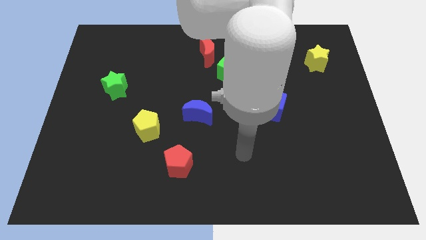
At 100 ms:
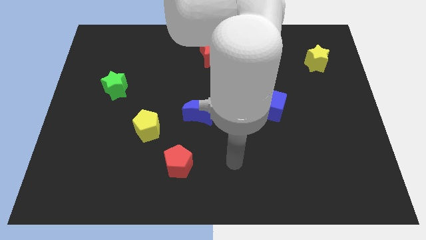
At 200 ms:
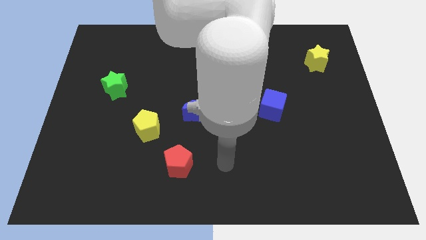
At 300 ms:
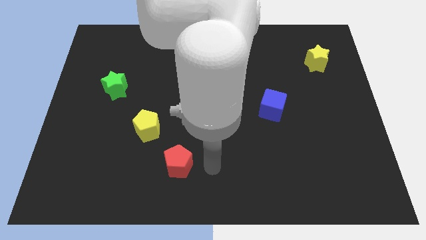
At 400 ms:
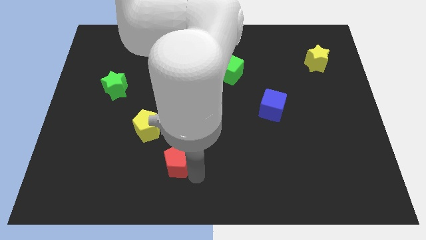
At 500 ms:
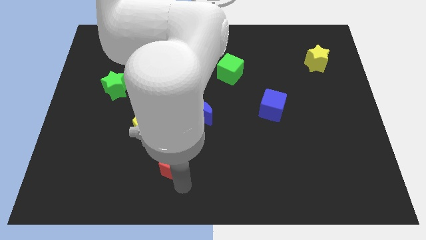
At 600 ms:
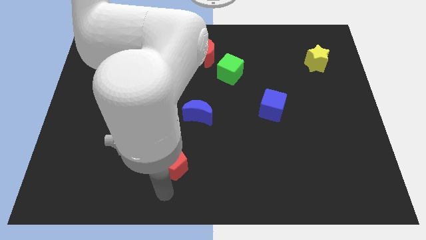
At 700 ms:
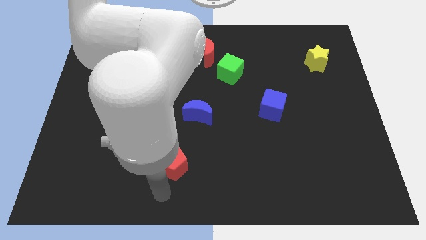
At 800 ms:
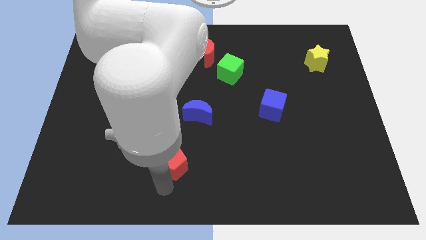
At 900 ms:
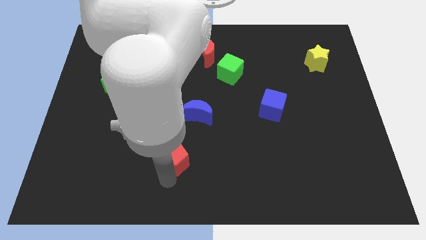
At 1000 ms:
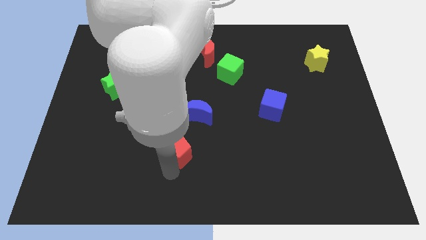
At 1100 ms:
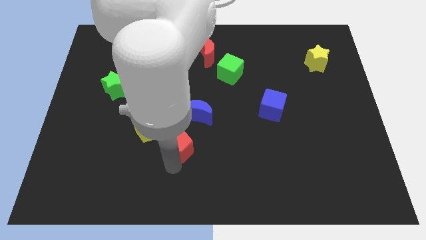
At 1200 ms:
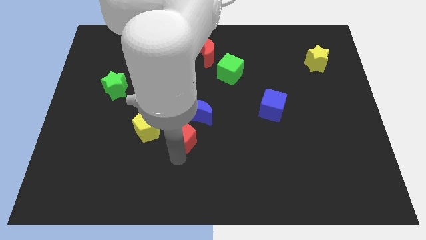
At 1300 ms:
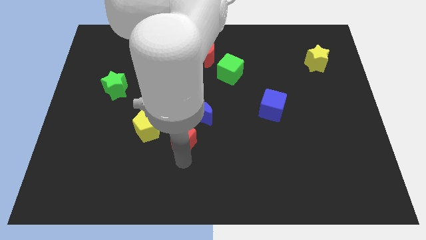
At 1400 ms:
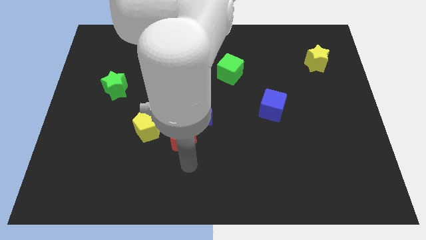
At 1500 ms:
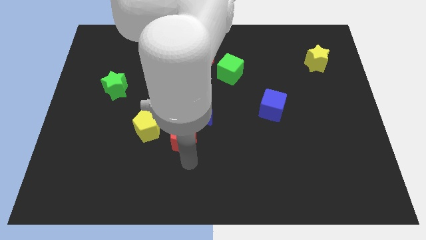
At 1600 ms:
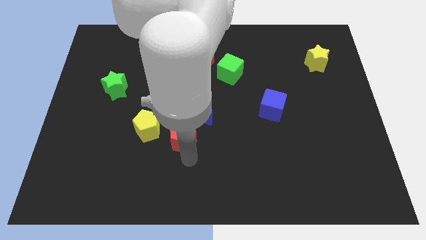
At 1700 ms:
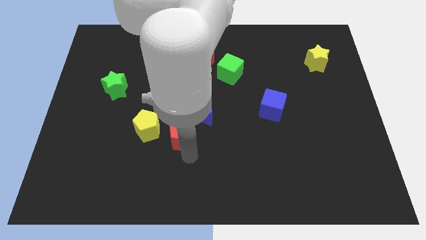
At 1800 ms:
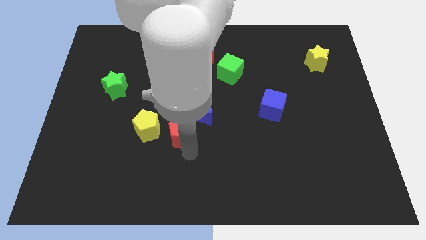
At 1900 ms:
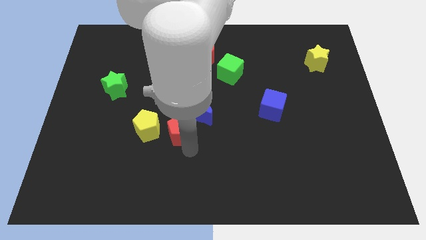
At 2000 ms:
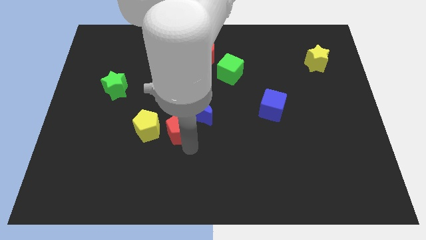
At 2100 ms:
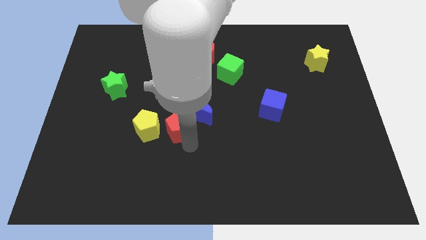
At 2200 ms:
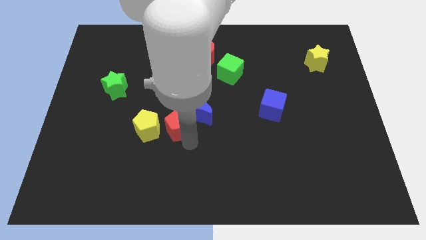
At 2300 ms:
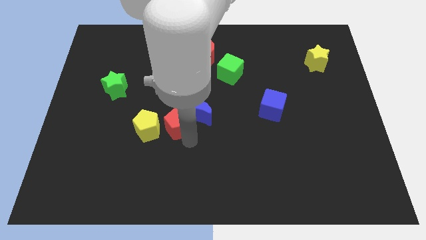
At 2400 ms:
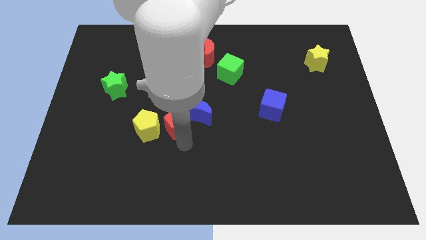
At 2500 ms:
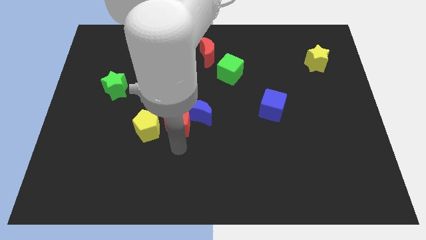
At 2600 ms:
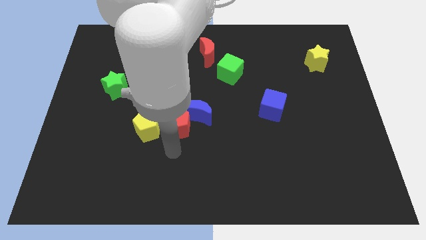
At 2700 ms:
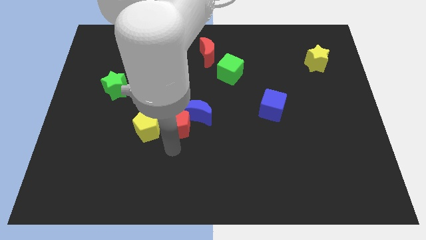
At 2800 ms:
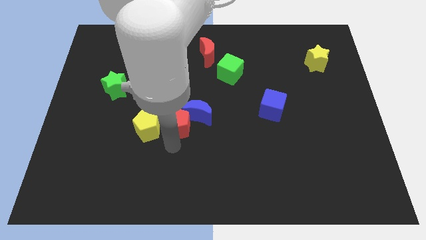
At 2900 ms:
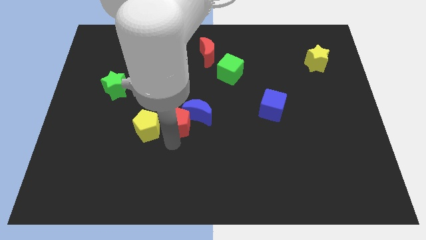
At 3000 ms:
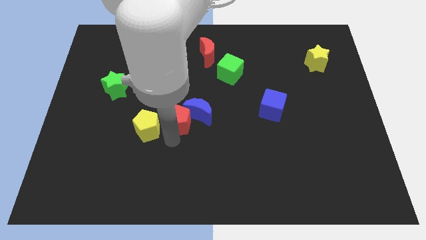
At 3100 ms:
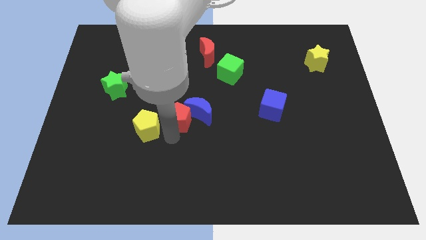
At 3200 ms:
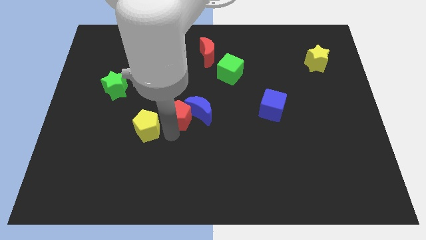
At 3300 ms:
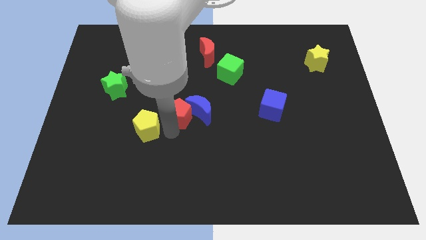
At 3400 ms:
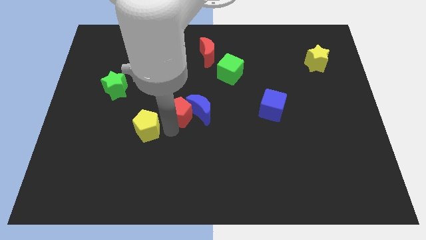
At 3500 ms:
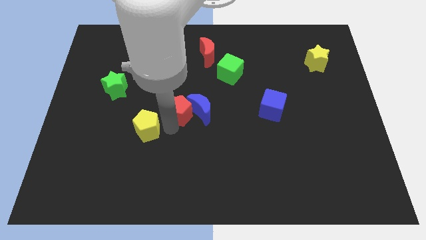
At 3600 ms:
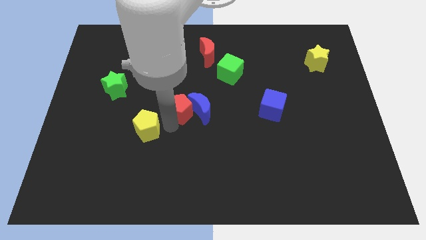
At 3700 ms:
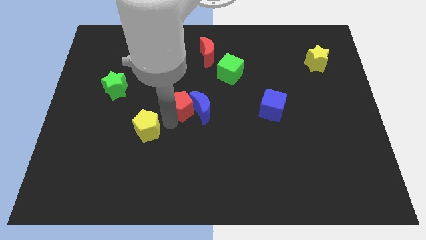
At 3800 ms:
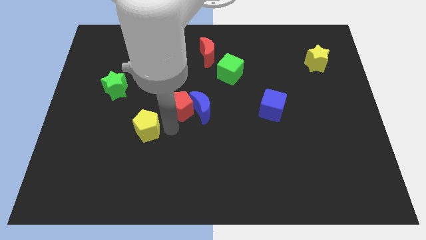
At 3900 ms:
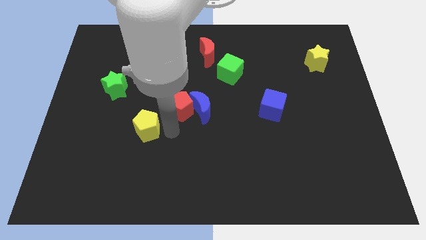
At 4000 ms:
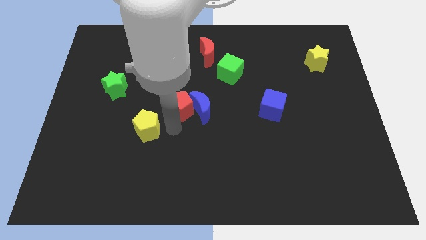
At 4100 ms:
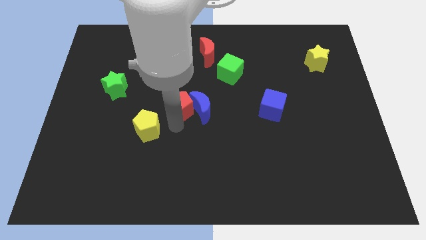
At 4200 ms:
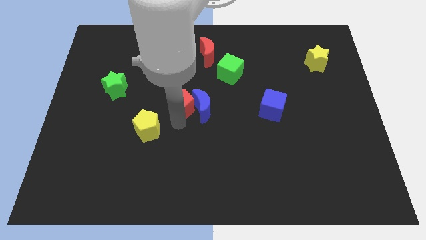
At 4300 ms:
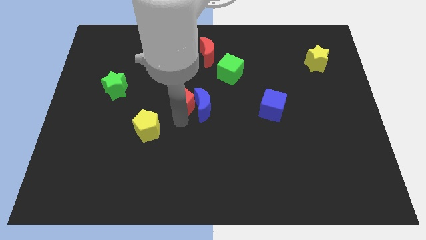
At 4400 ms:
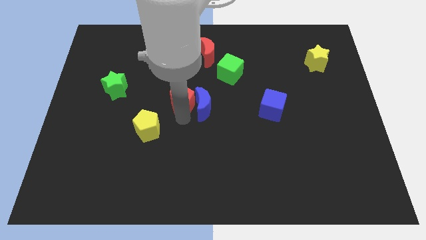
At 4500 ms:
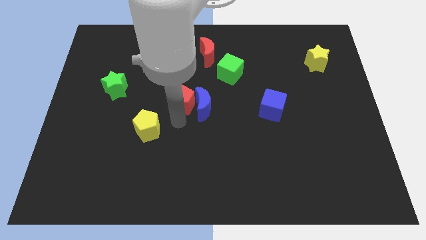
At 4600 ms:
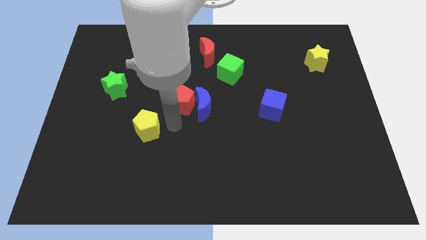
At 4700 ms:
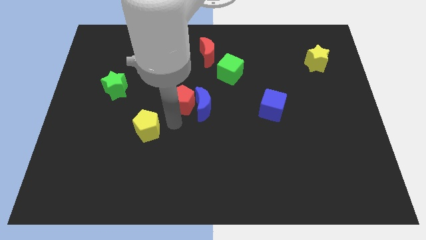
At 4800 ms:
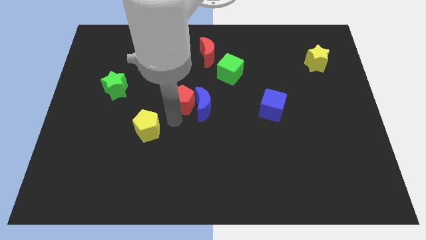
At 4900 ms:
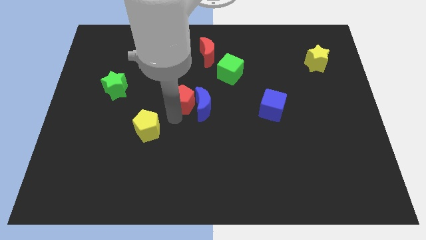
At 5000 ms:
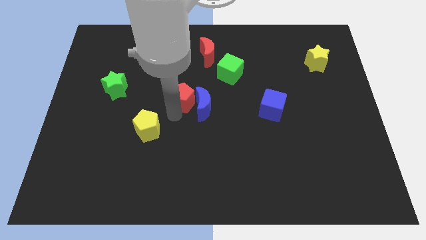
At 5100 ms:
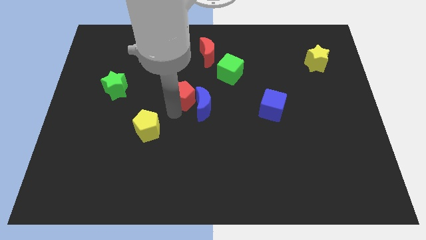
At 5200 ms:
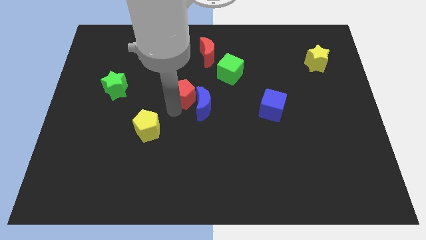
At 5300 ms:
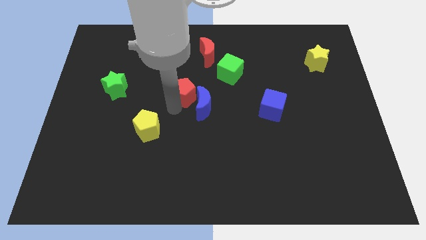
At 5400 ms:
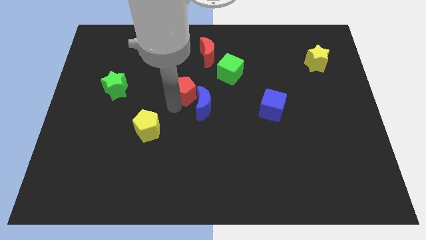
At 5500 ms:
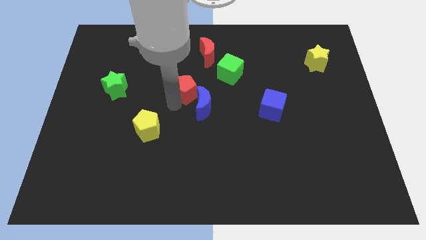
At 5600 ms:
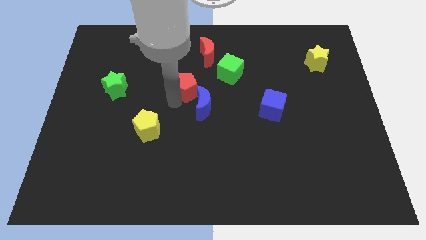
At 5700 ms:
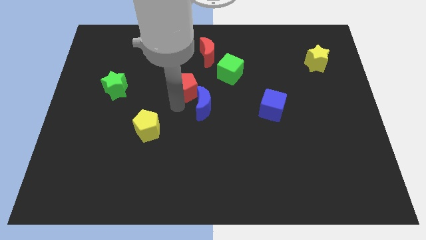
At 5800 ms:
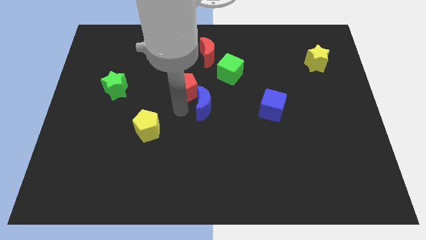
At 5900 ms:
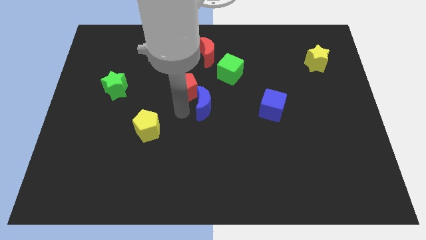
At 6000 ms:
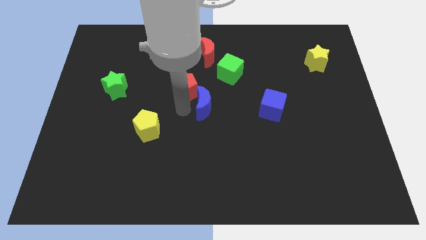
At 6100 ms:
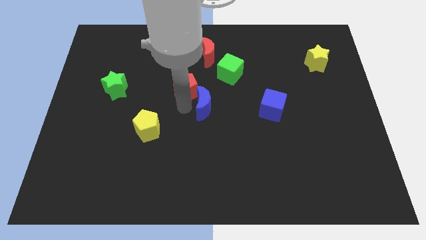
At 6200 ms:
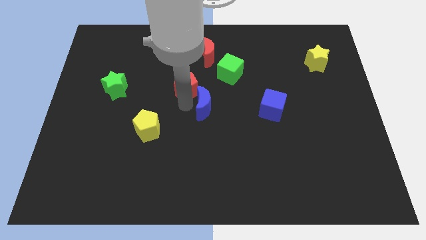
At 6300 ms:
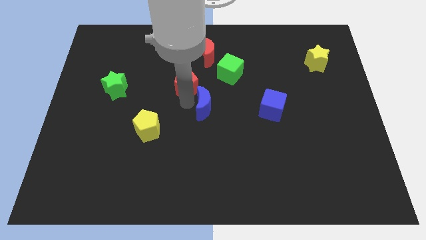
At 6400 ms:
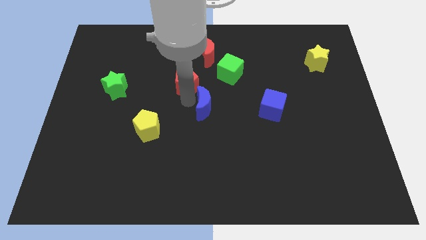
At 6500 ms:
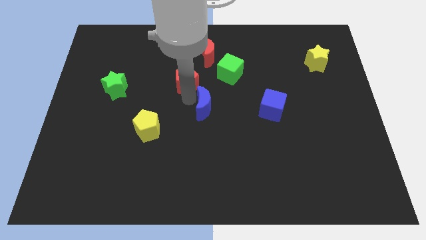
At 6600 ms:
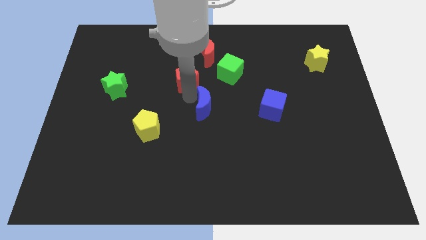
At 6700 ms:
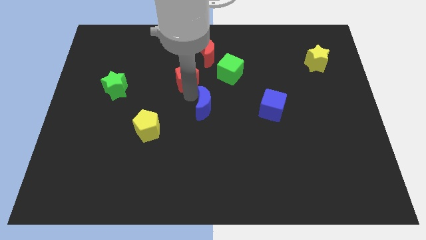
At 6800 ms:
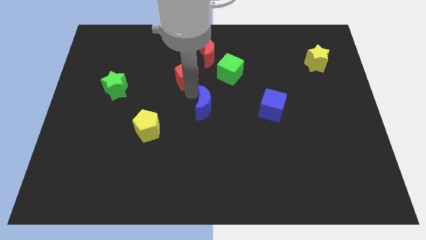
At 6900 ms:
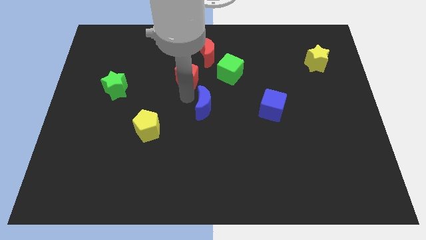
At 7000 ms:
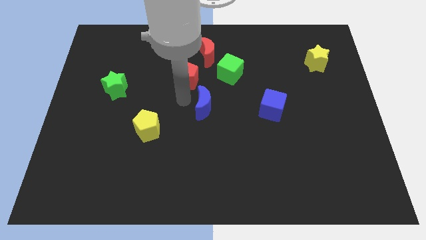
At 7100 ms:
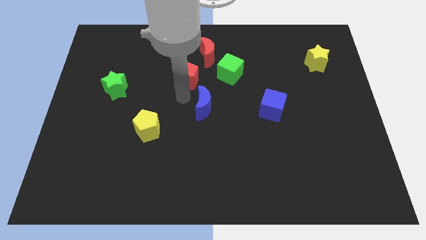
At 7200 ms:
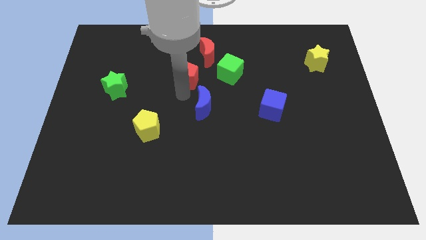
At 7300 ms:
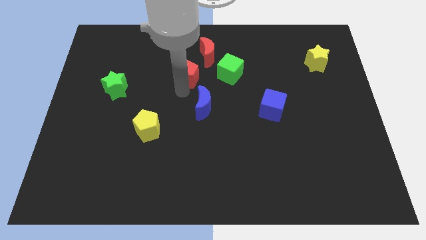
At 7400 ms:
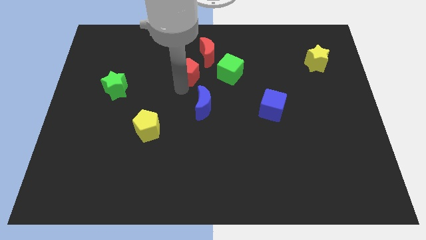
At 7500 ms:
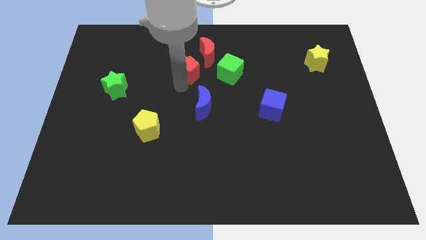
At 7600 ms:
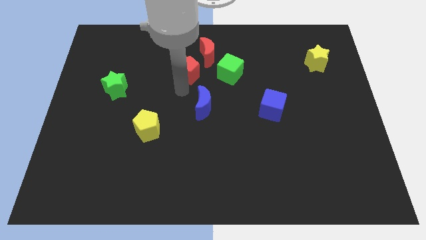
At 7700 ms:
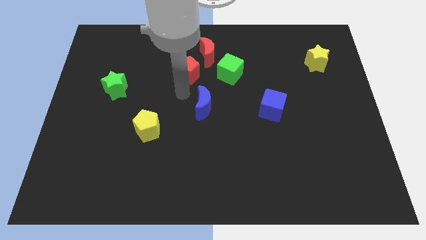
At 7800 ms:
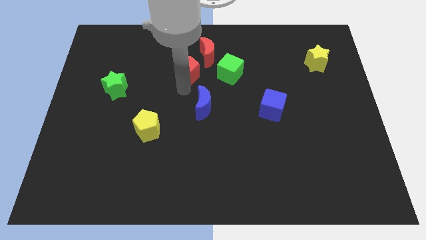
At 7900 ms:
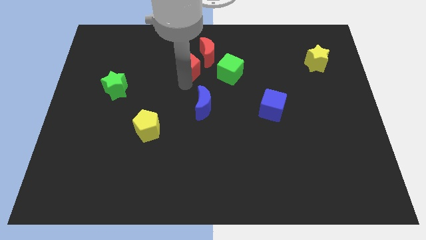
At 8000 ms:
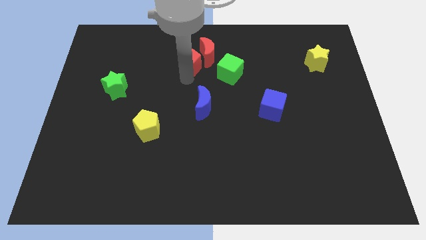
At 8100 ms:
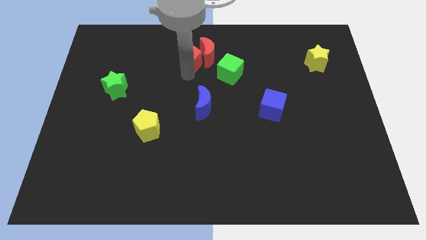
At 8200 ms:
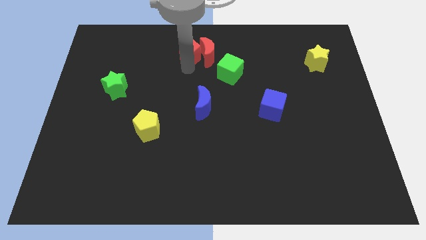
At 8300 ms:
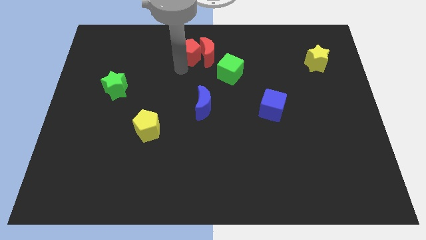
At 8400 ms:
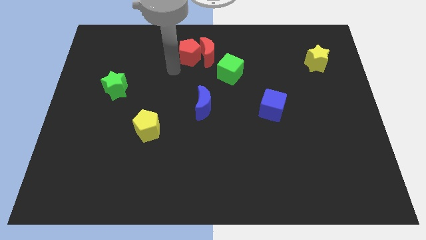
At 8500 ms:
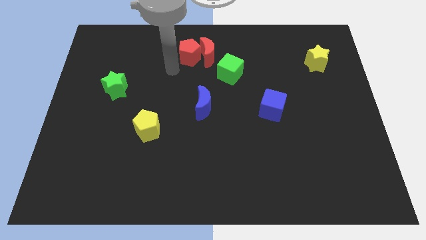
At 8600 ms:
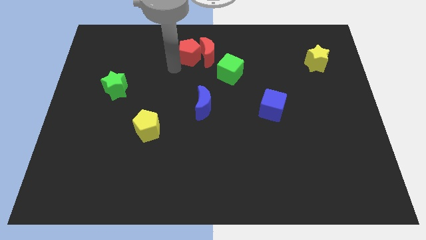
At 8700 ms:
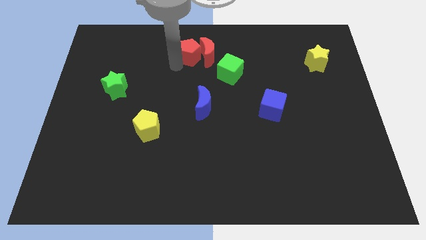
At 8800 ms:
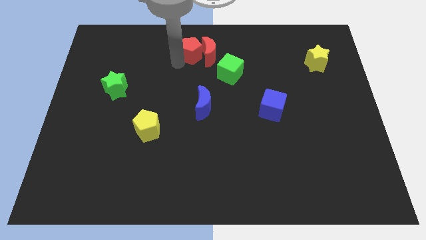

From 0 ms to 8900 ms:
put the red pentagon to the top
